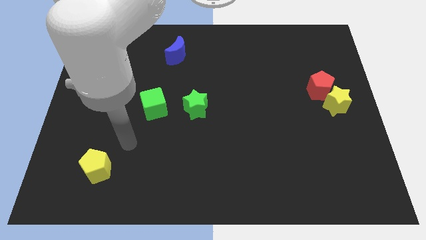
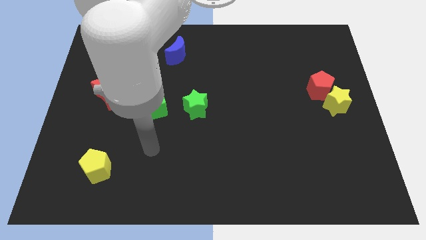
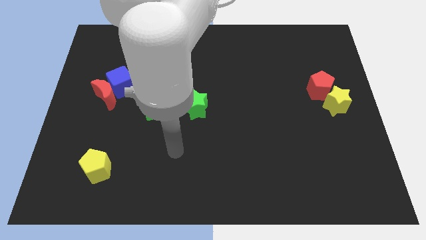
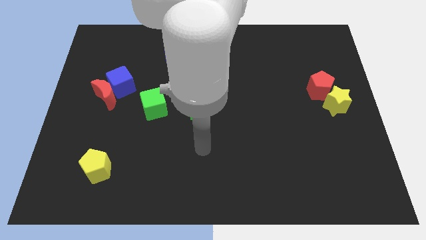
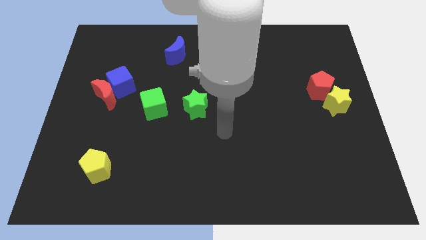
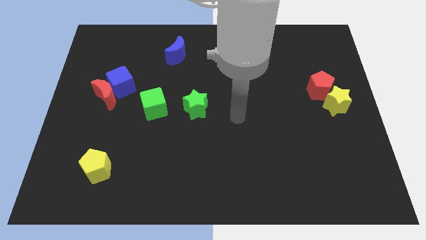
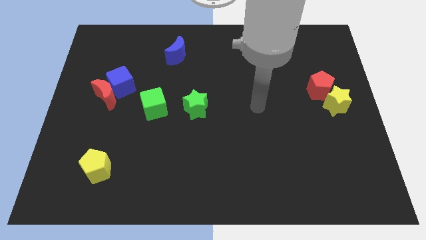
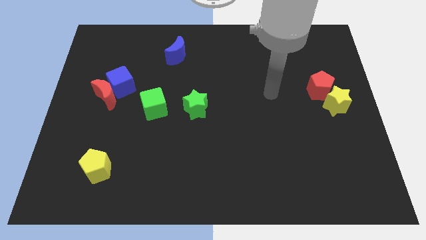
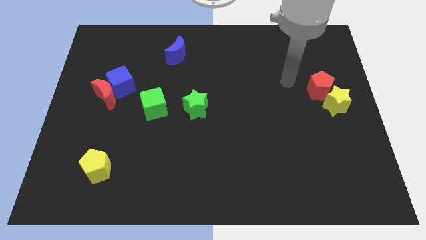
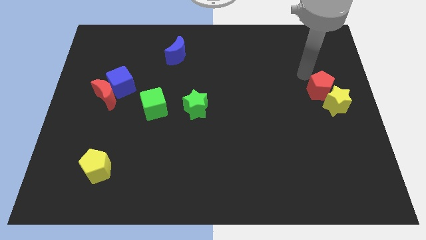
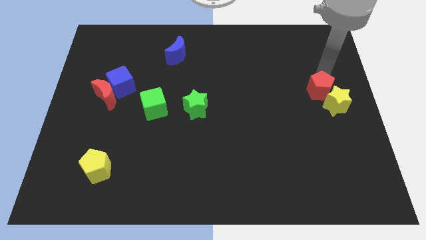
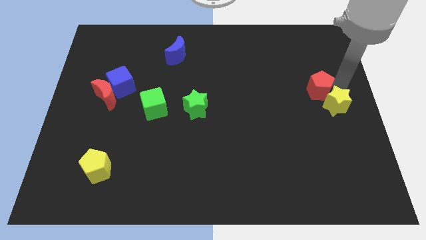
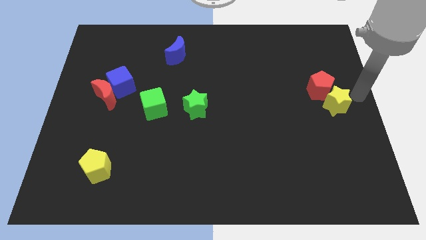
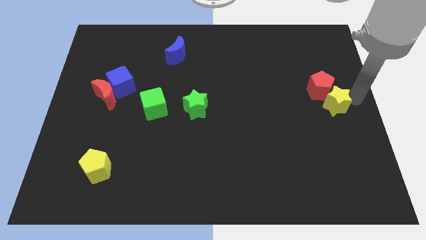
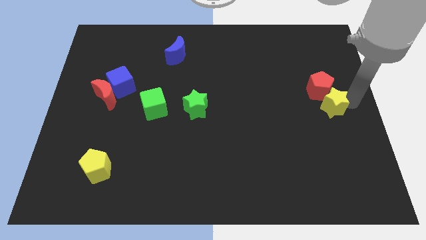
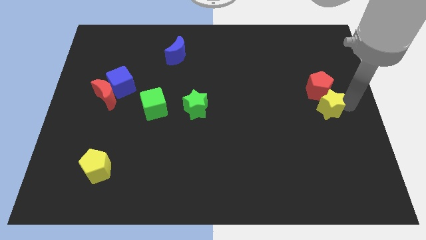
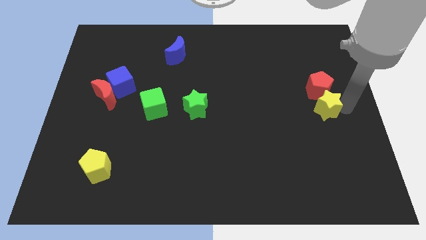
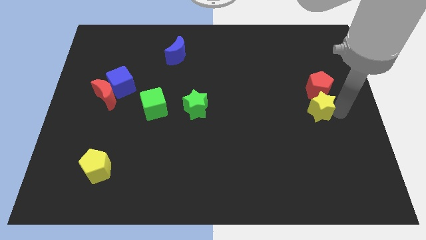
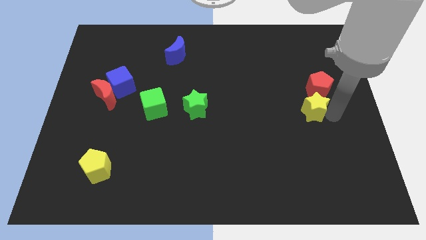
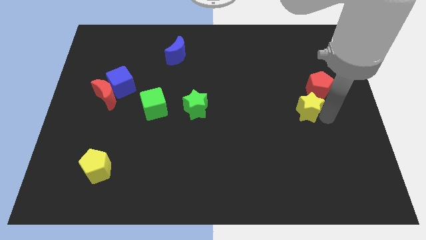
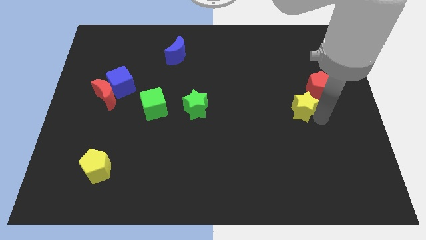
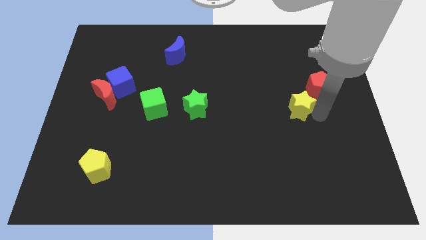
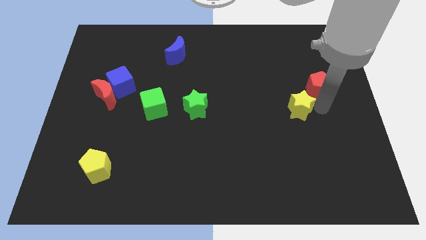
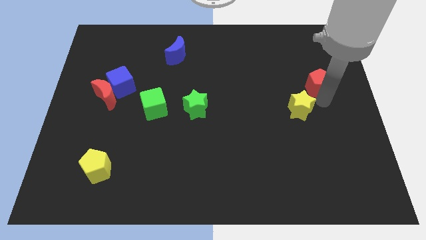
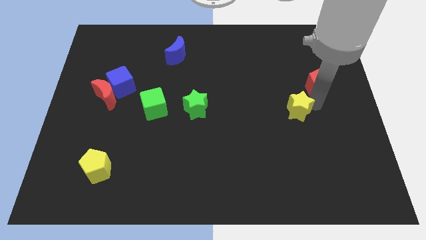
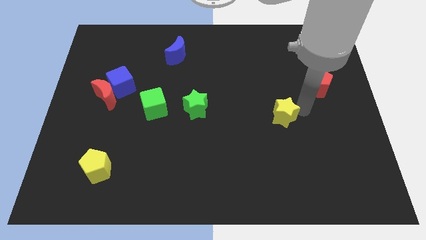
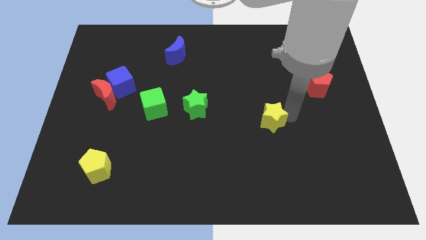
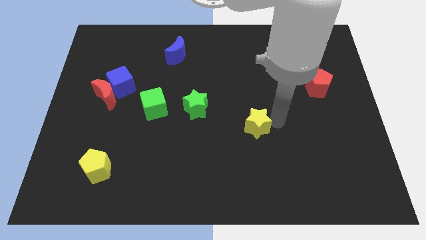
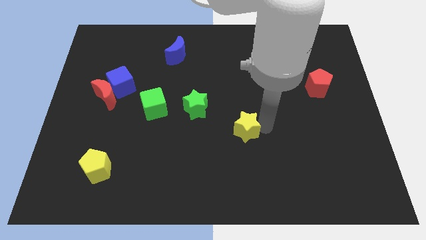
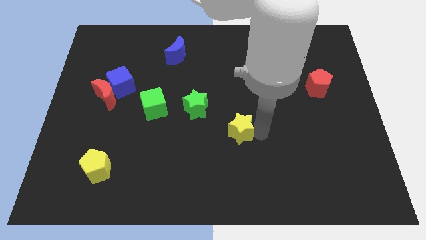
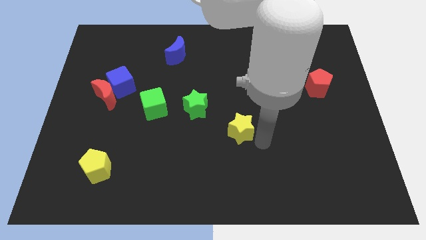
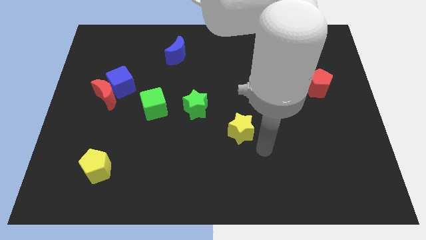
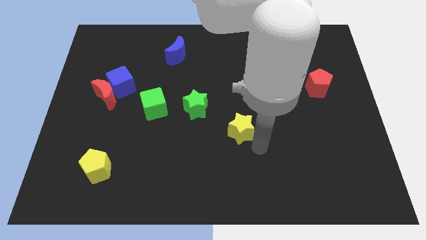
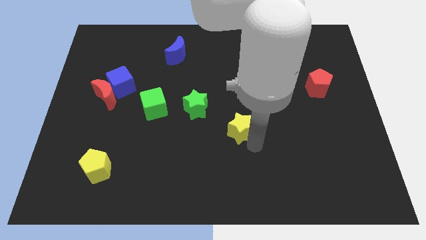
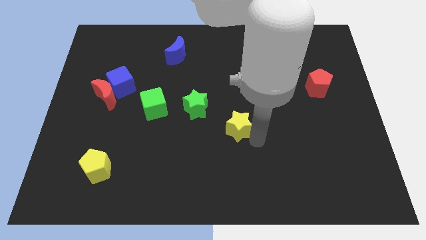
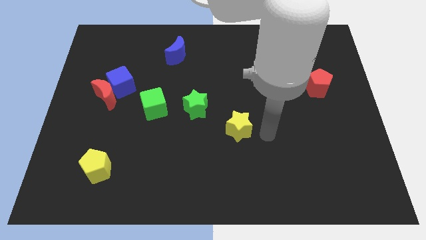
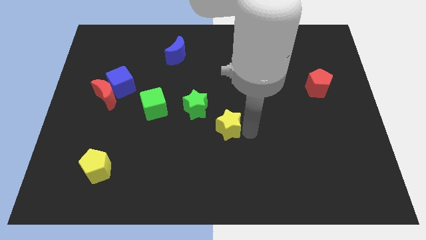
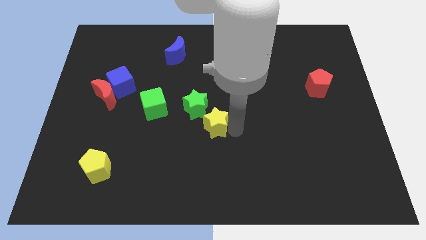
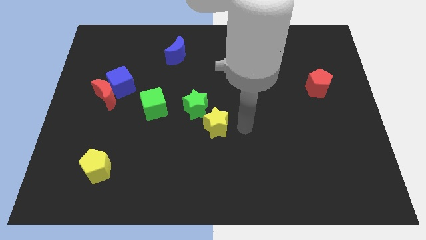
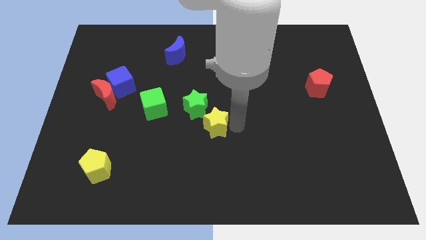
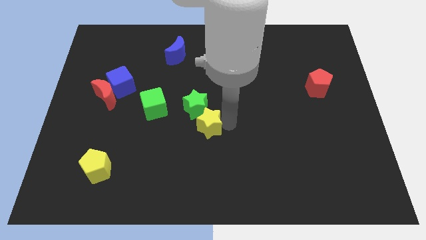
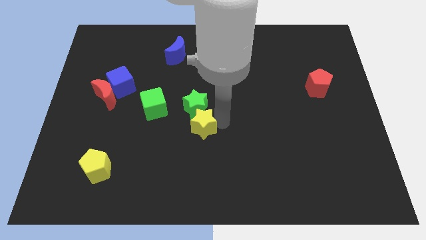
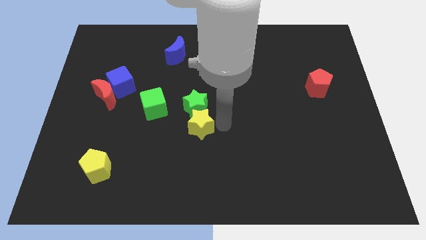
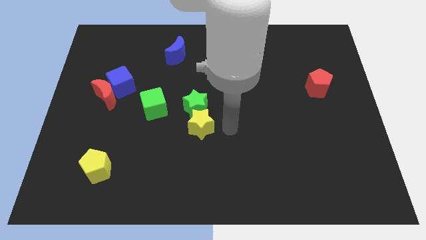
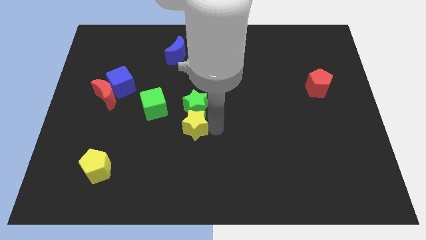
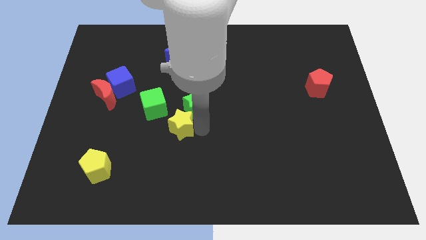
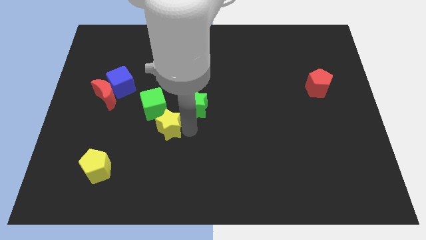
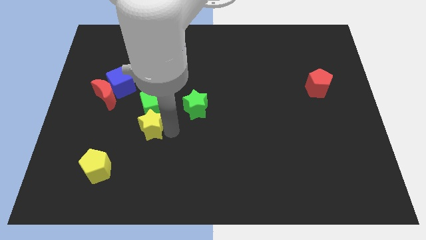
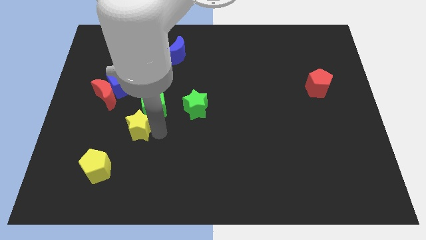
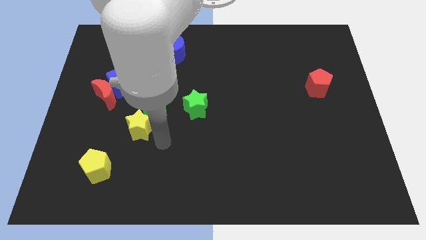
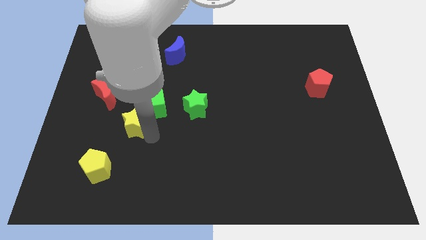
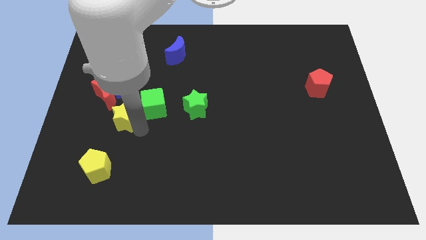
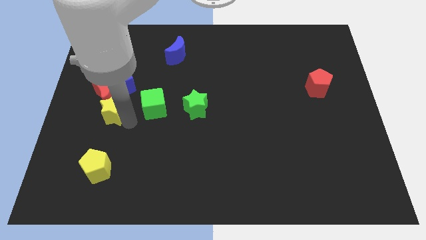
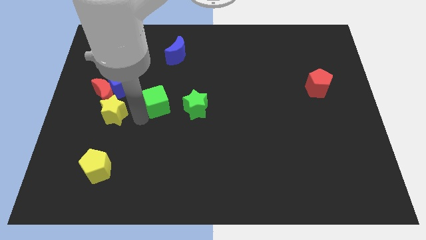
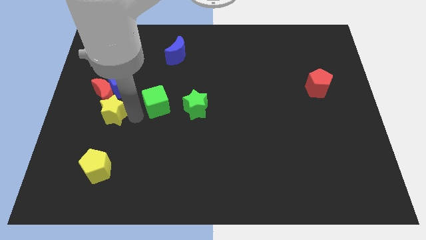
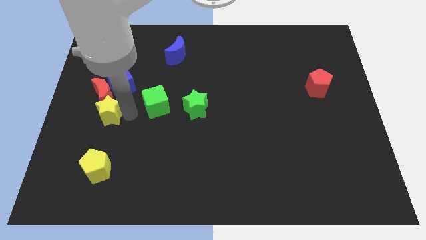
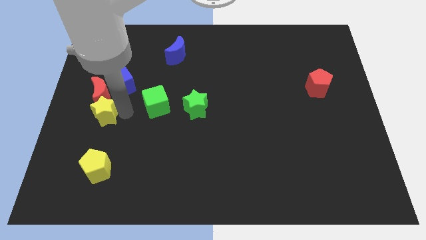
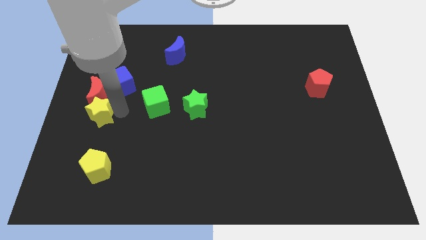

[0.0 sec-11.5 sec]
push the yellow star to the center left

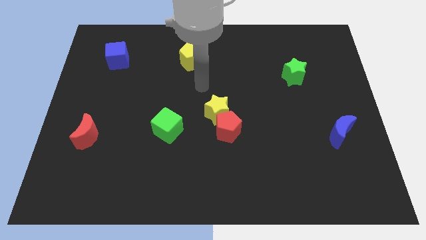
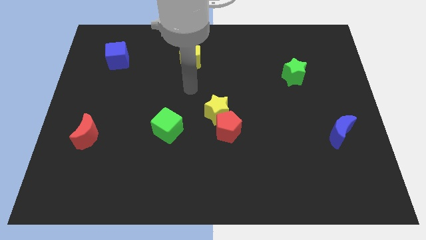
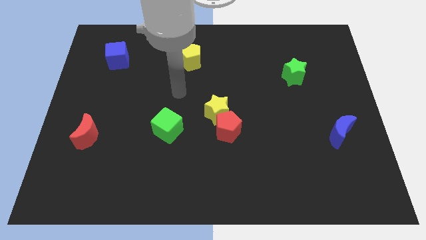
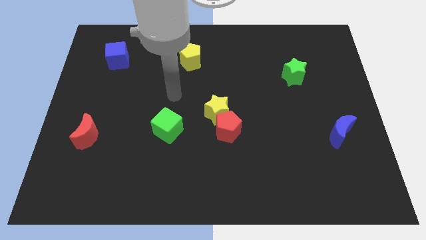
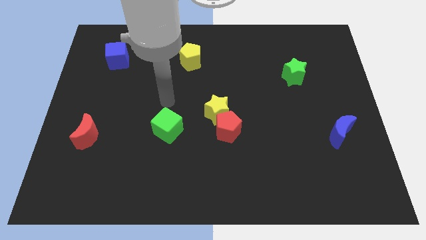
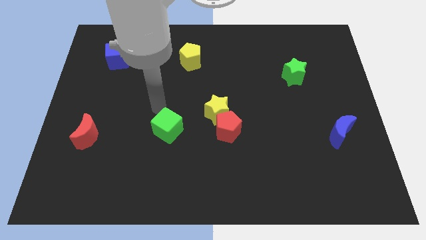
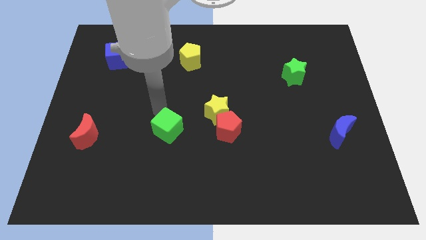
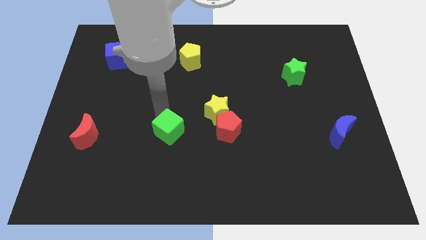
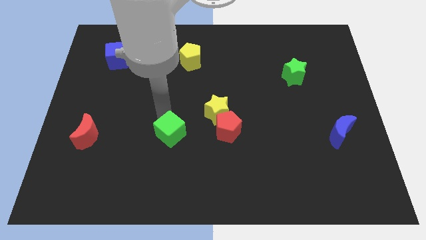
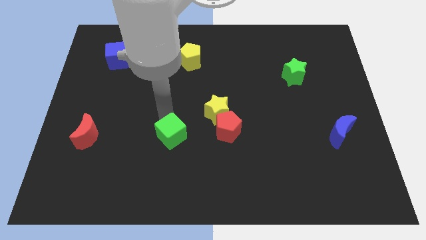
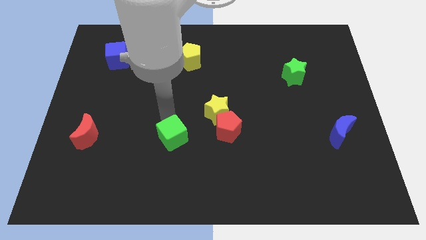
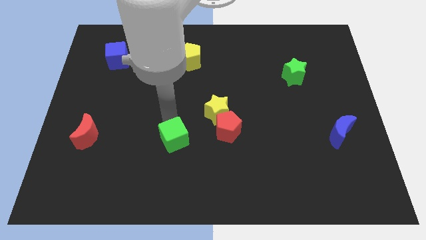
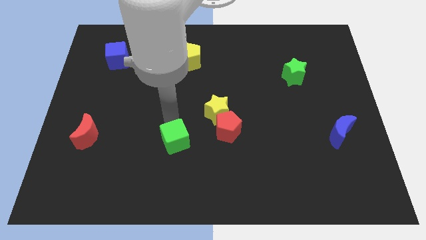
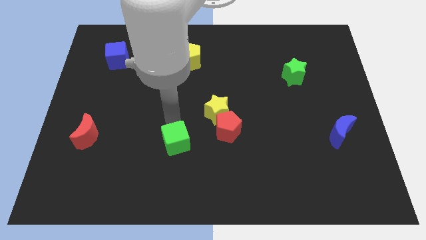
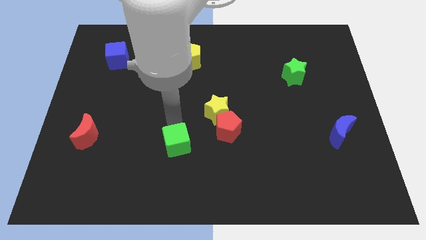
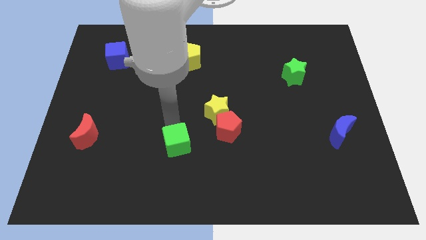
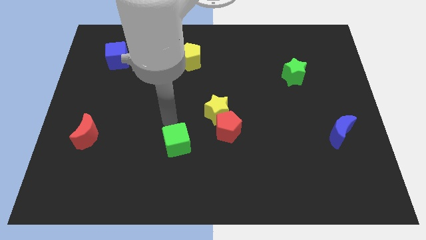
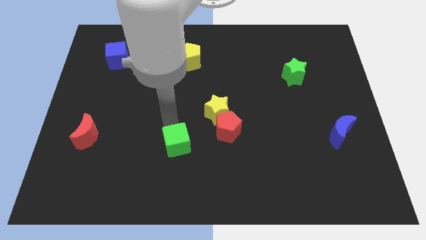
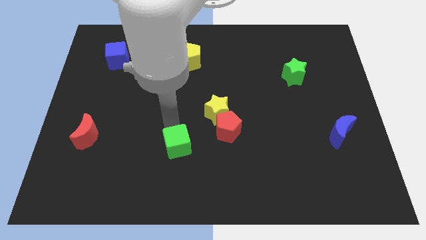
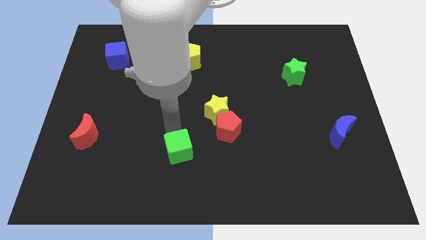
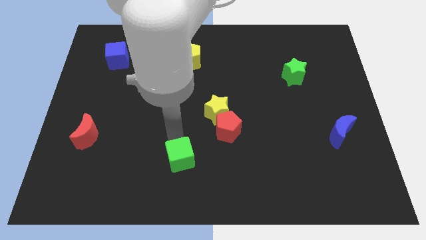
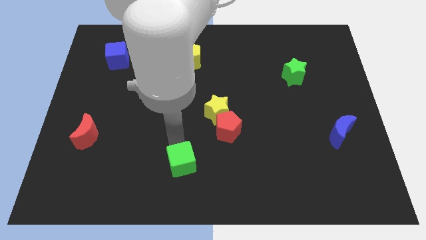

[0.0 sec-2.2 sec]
slide the green cube to the bottom
